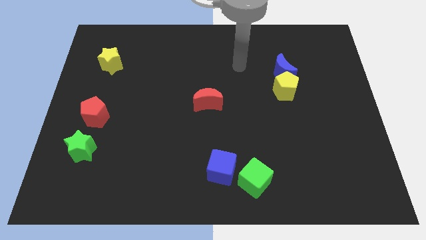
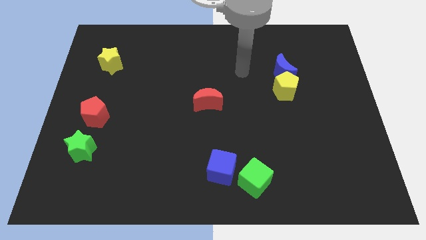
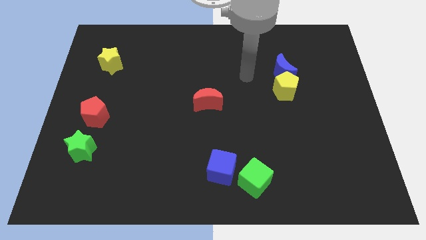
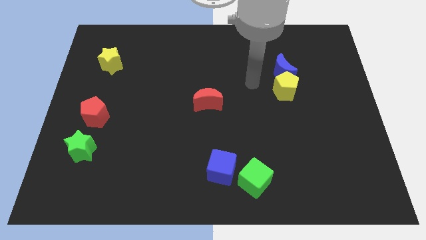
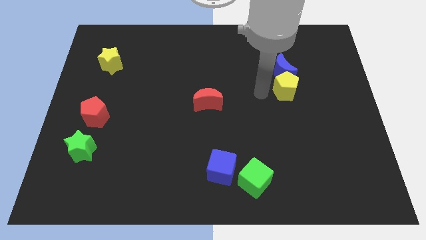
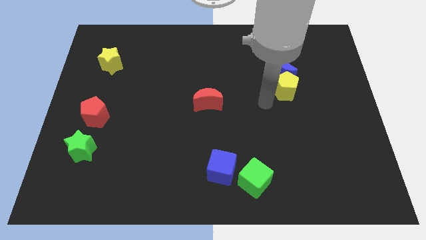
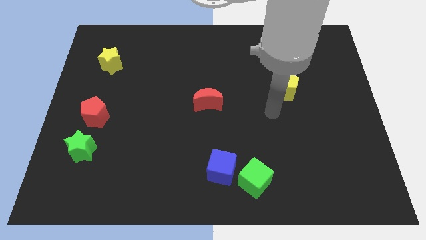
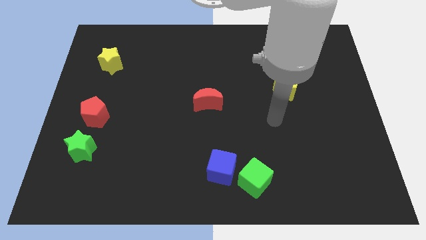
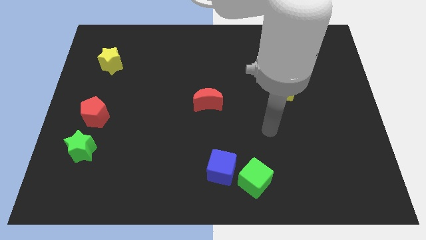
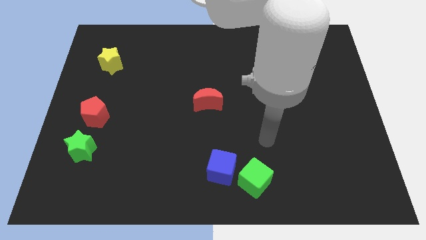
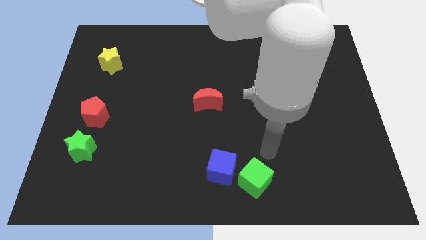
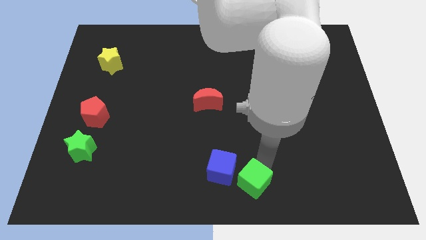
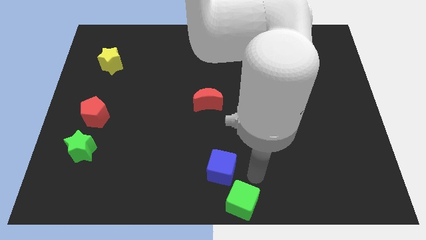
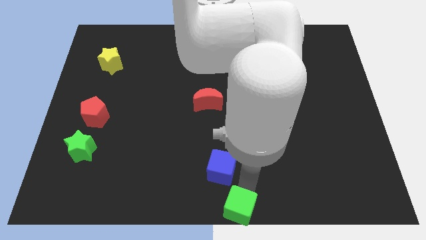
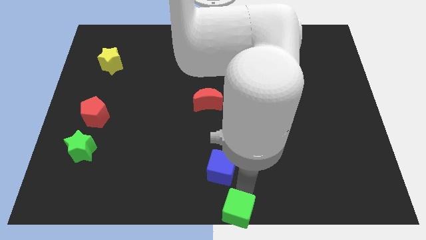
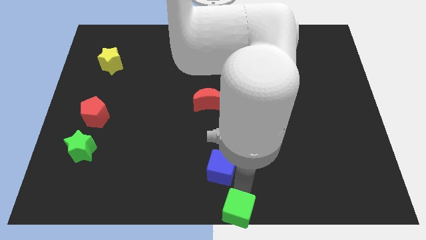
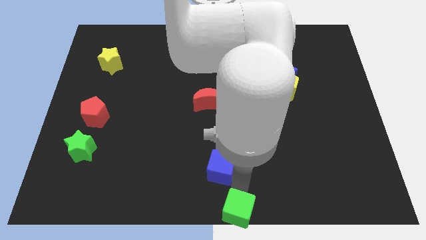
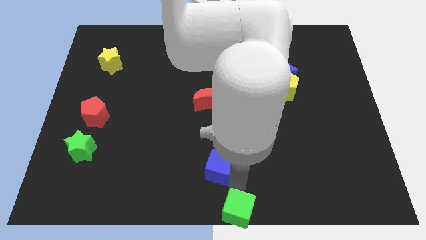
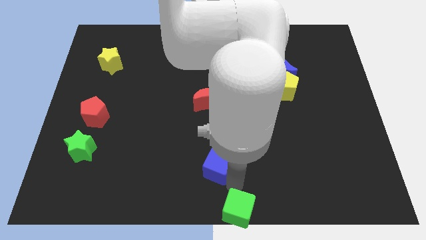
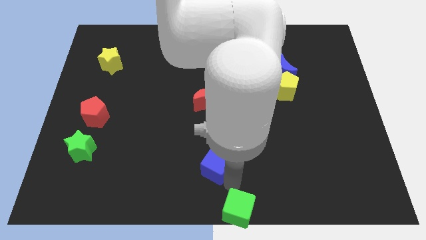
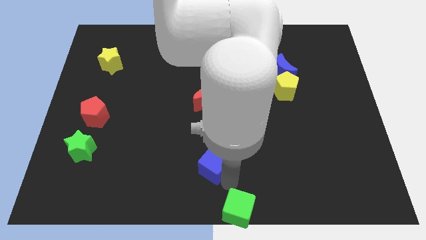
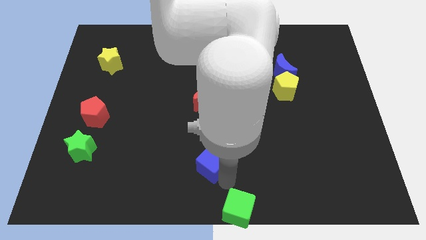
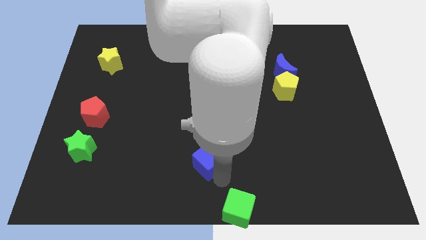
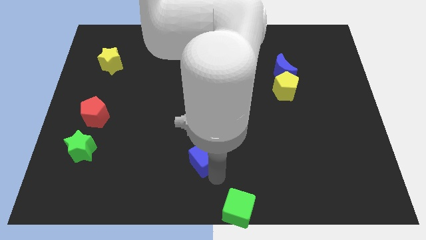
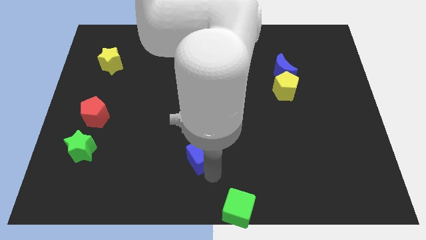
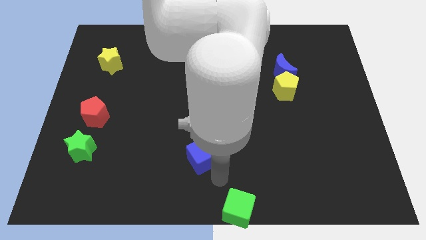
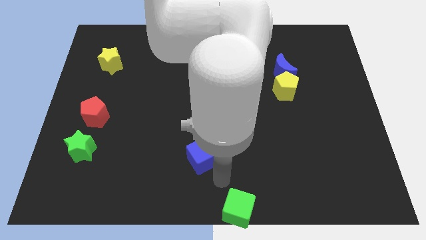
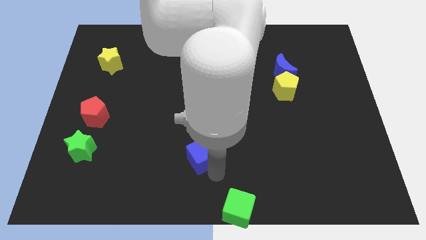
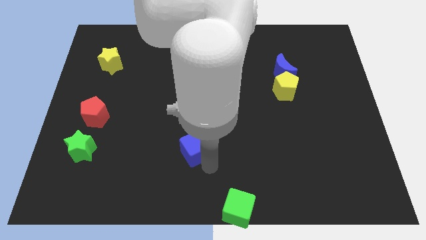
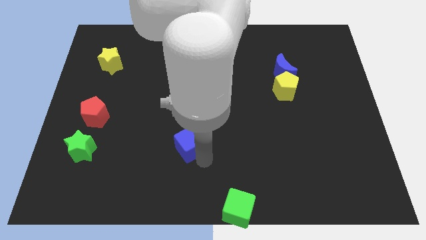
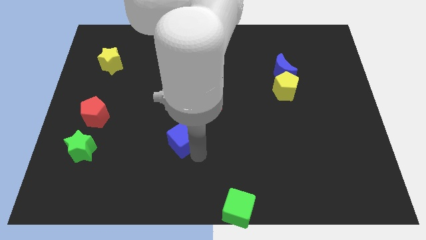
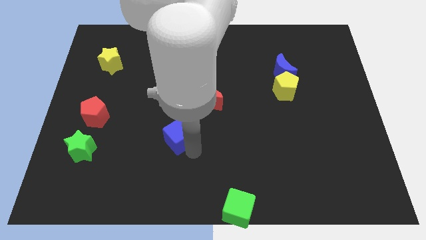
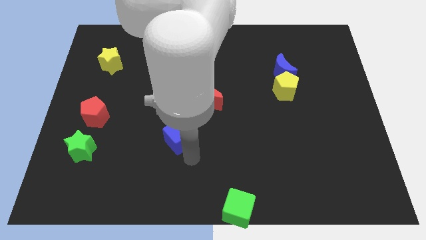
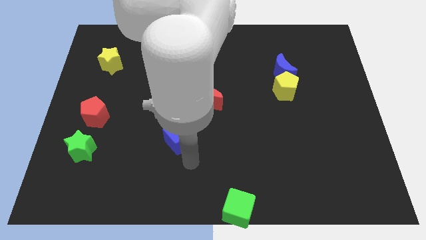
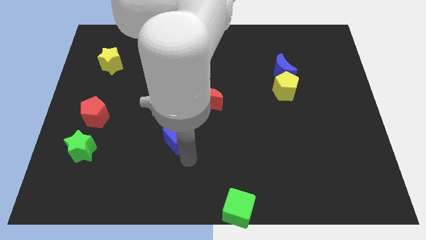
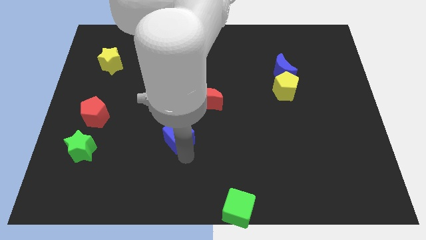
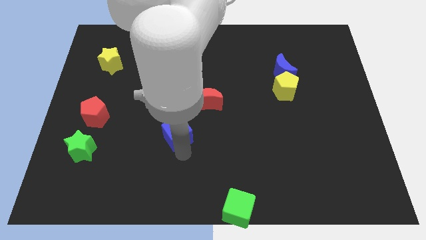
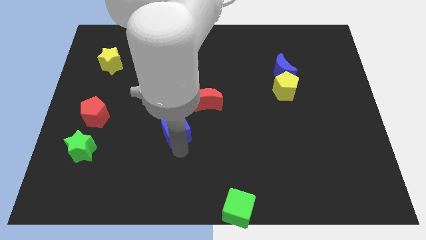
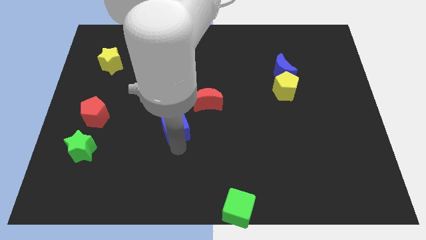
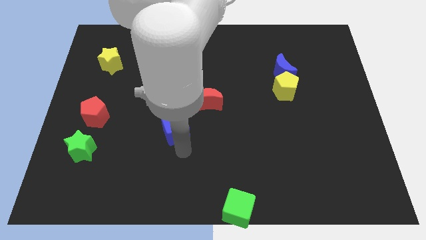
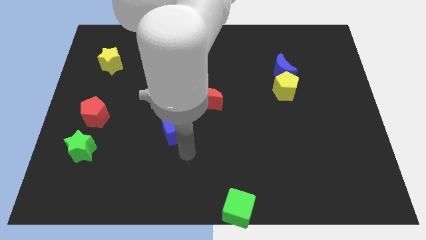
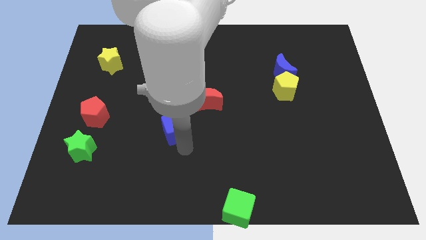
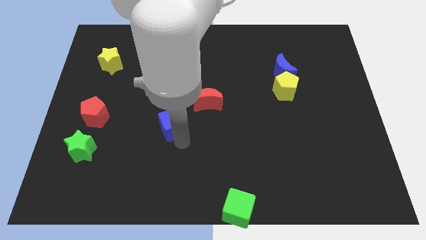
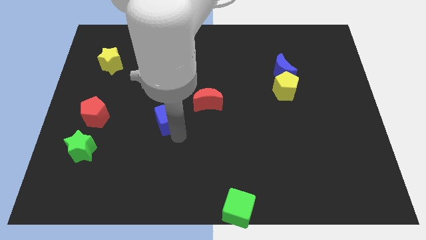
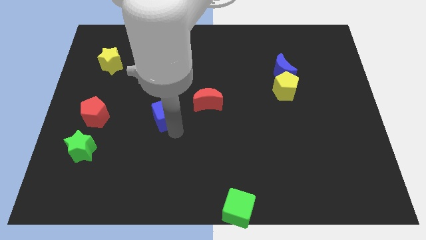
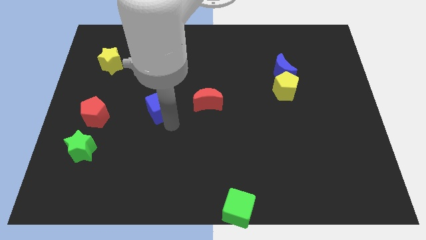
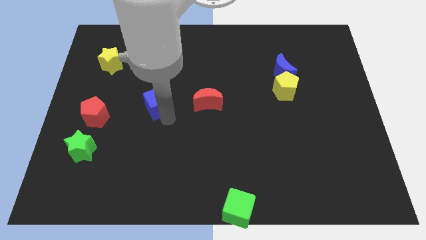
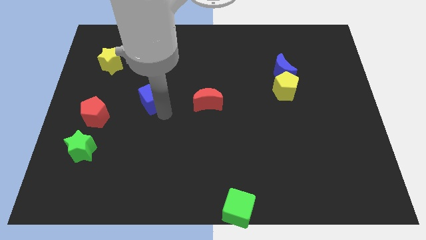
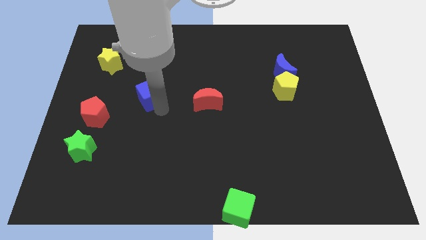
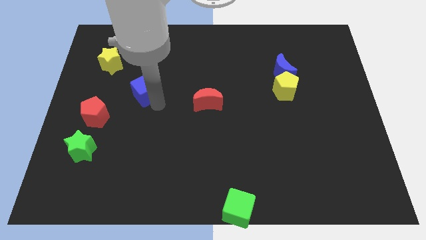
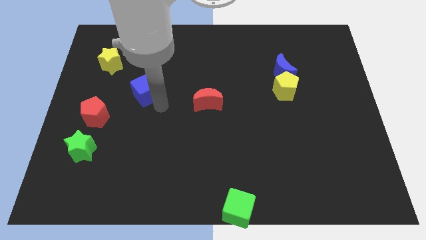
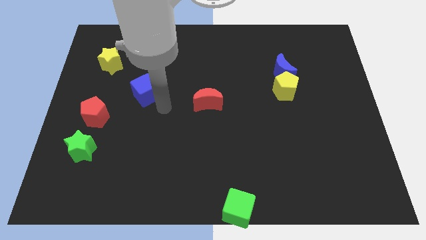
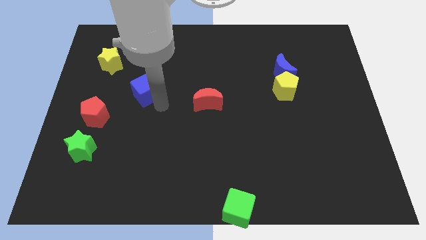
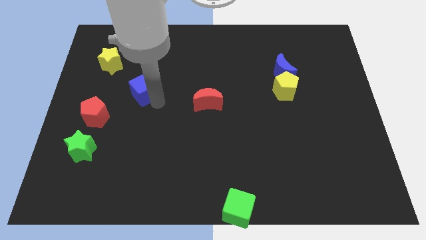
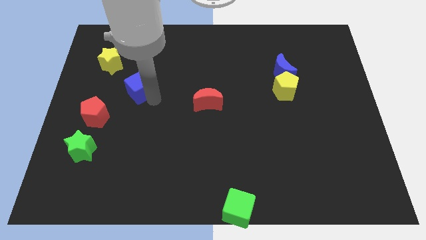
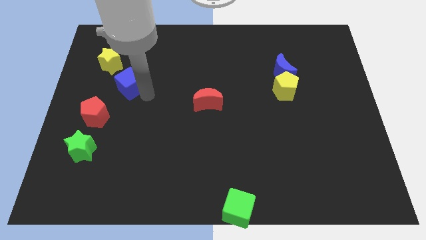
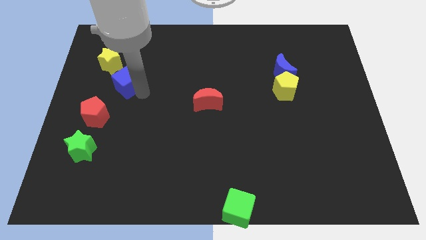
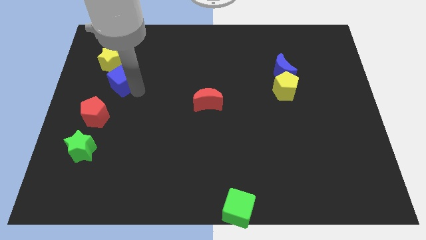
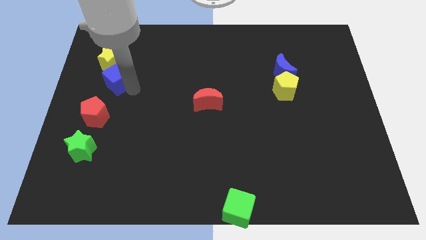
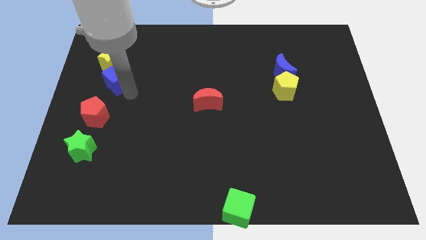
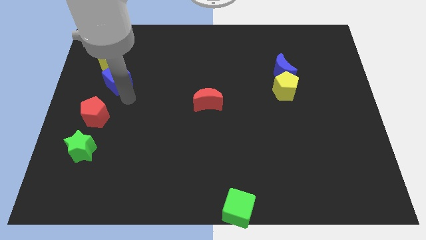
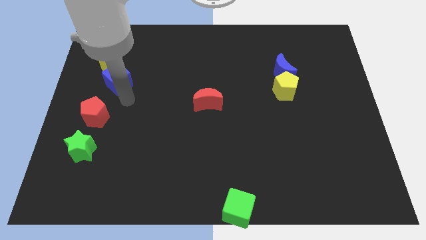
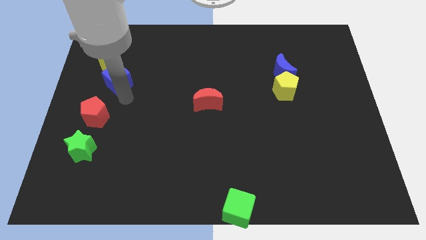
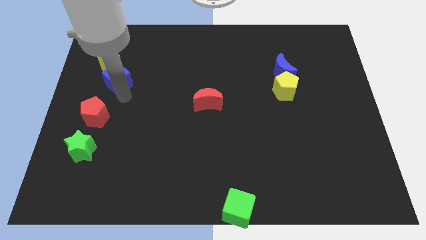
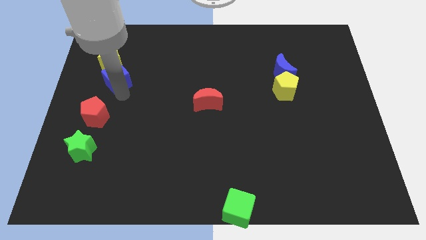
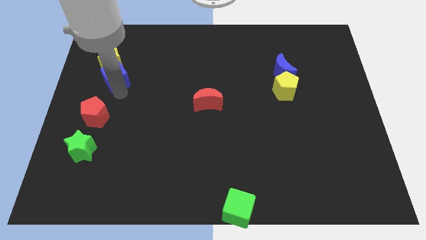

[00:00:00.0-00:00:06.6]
push the blue cube next to the yellow star

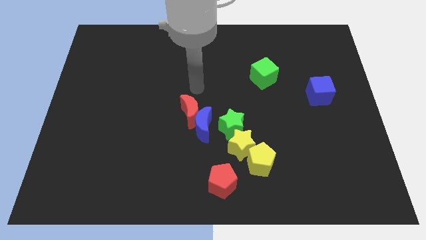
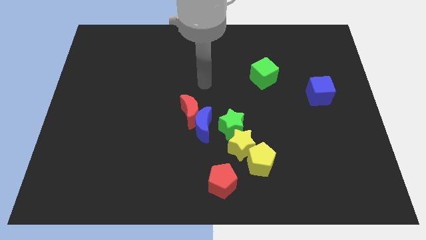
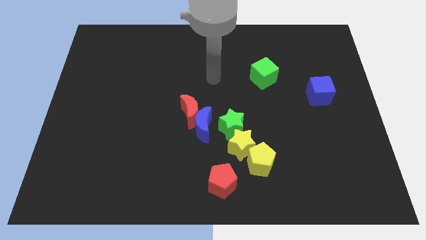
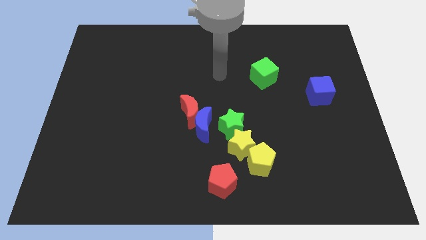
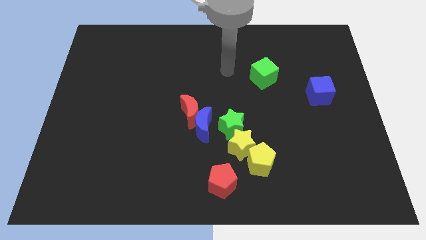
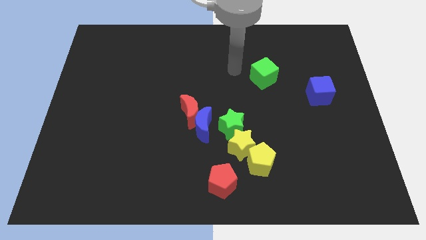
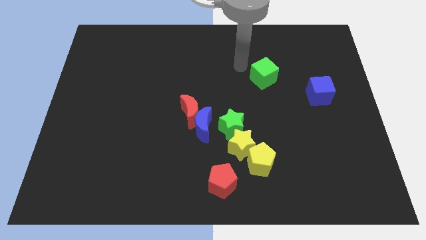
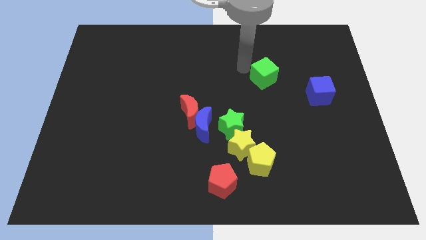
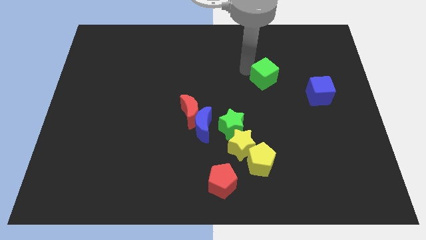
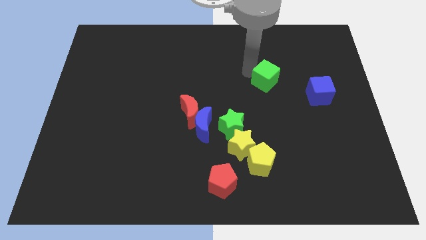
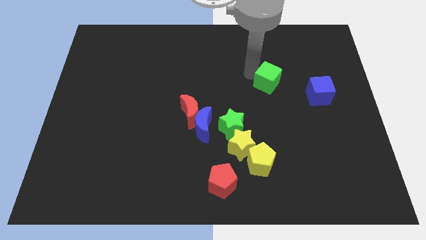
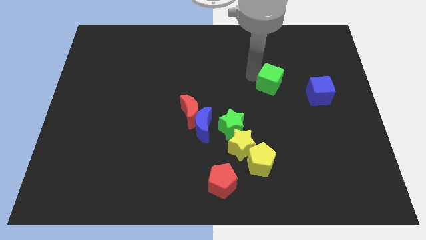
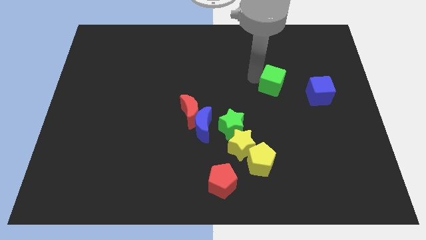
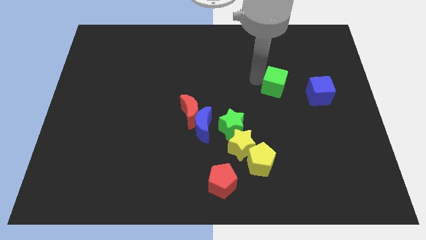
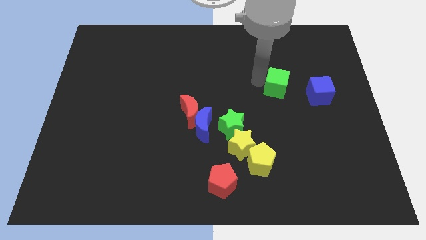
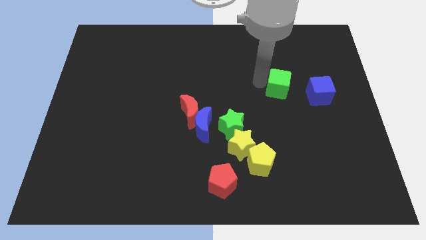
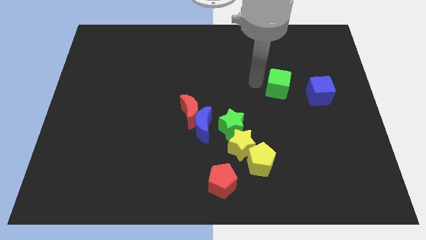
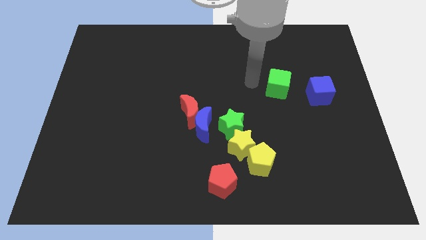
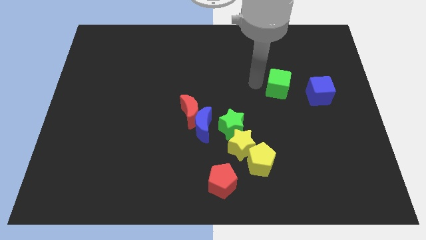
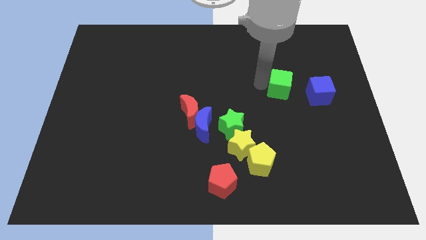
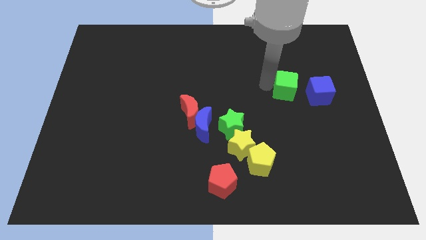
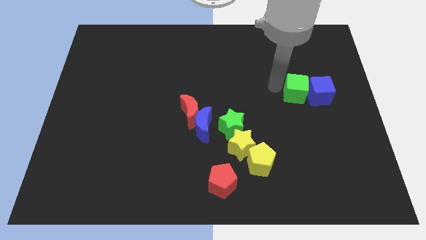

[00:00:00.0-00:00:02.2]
slide the green cube close to the blue cube
